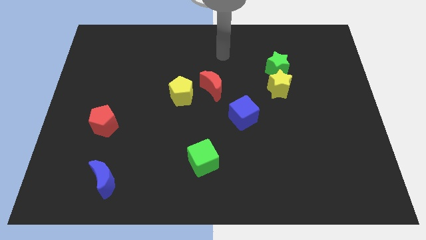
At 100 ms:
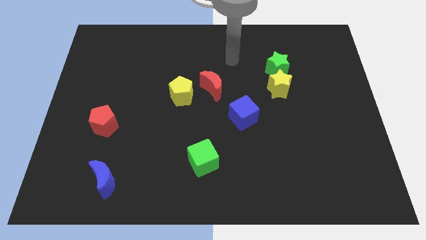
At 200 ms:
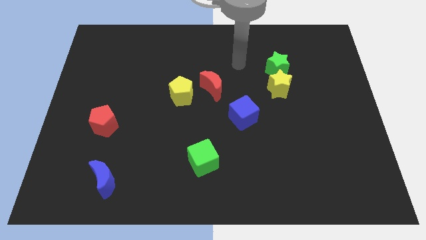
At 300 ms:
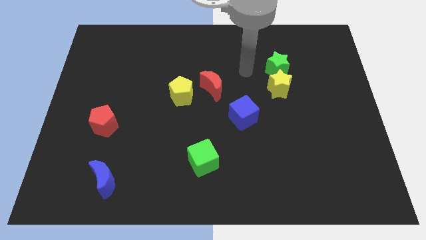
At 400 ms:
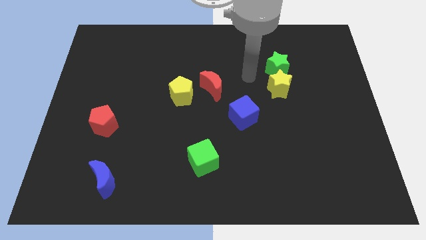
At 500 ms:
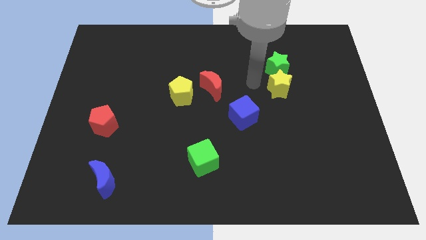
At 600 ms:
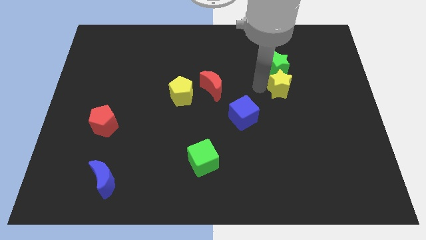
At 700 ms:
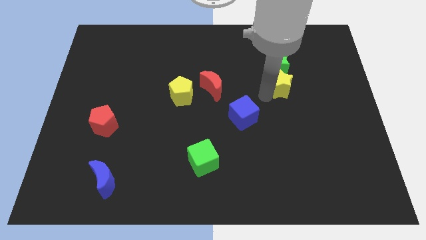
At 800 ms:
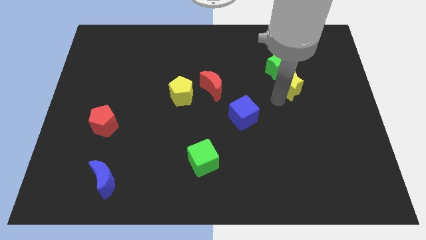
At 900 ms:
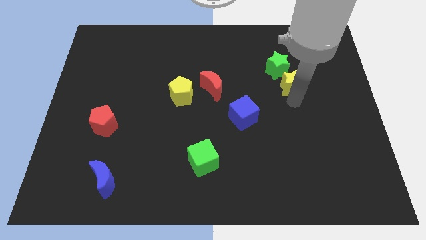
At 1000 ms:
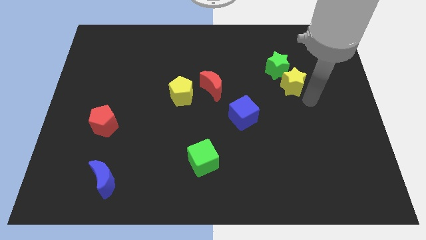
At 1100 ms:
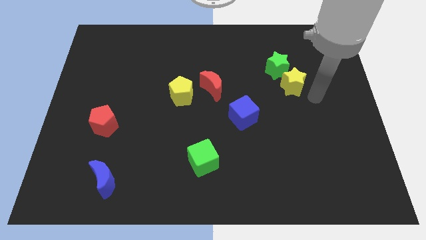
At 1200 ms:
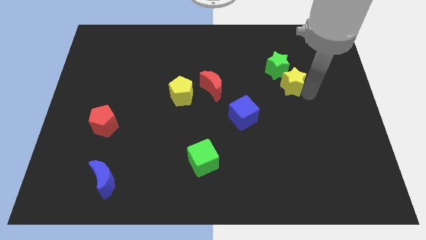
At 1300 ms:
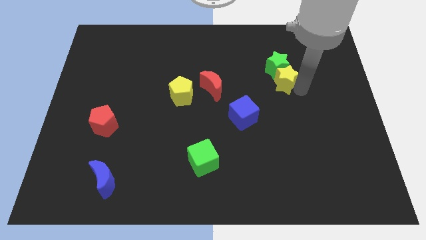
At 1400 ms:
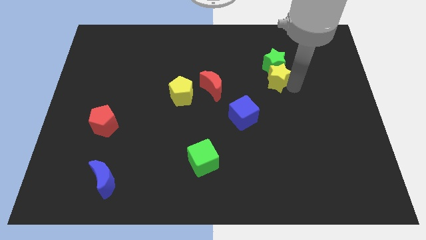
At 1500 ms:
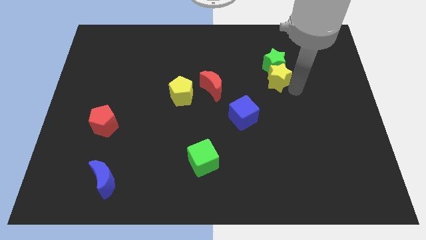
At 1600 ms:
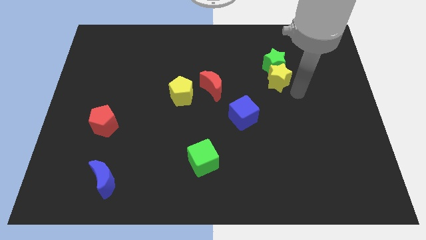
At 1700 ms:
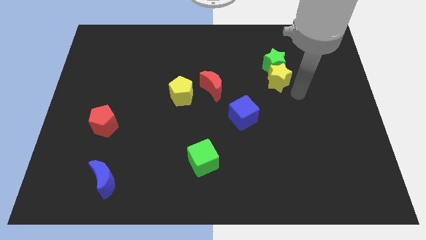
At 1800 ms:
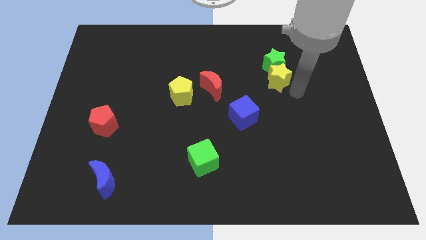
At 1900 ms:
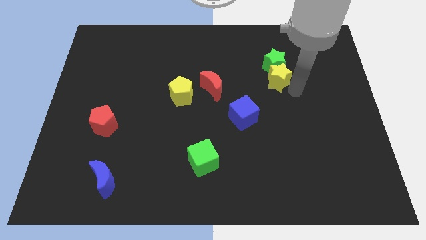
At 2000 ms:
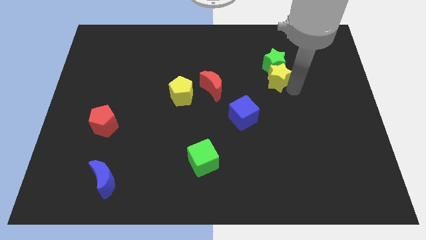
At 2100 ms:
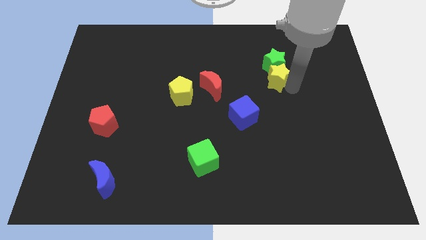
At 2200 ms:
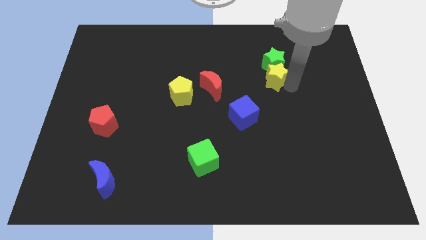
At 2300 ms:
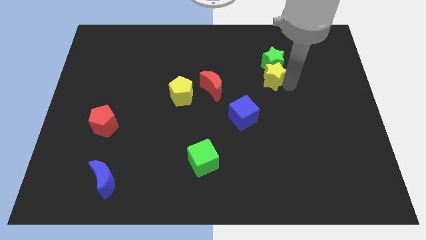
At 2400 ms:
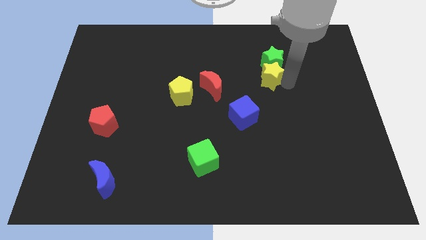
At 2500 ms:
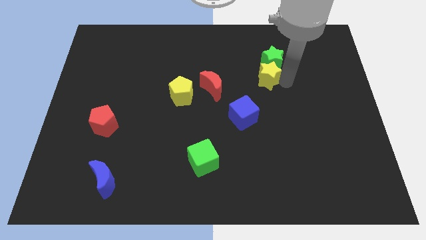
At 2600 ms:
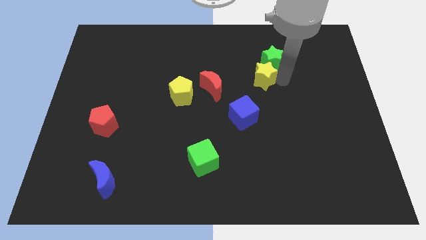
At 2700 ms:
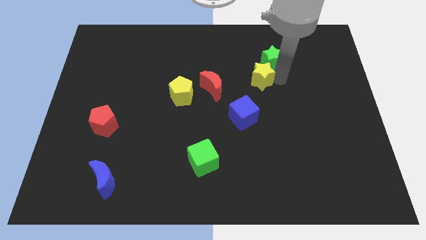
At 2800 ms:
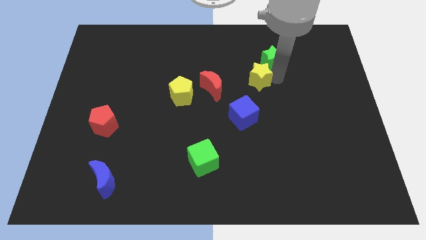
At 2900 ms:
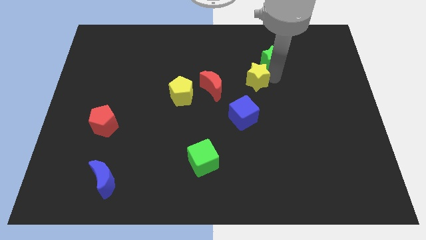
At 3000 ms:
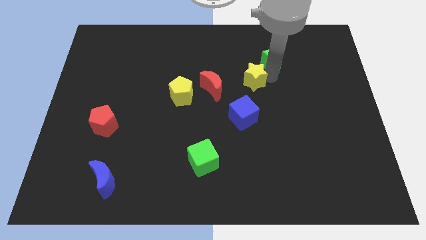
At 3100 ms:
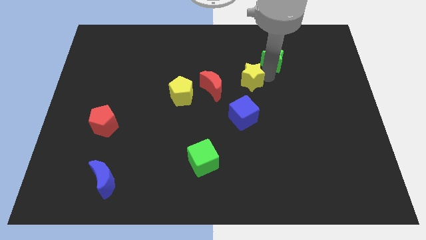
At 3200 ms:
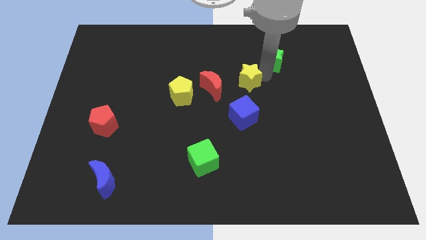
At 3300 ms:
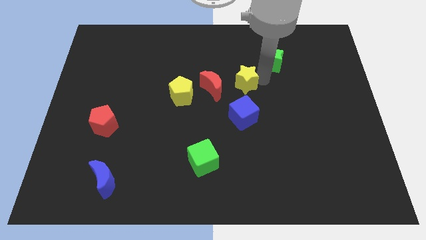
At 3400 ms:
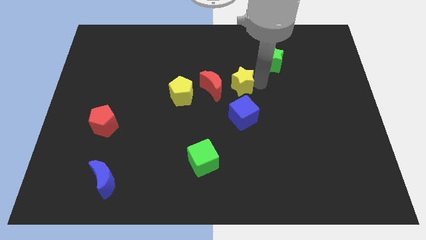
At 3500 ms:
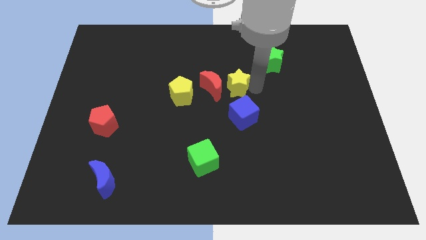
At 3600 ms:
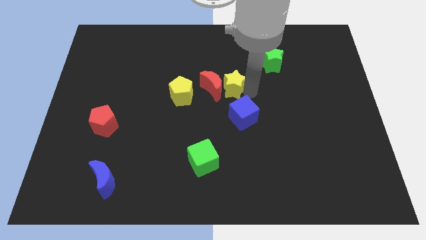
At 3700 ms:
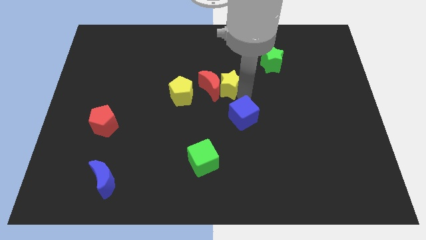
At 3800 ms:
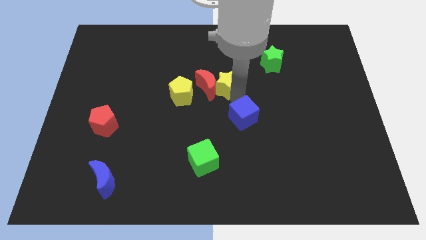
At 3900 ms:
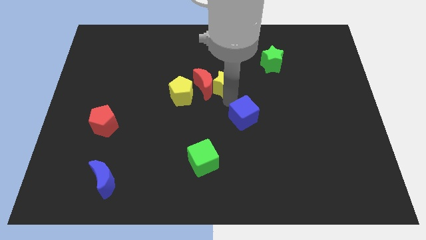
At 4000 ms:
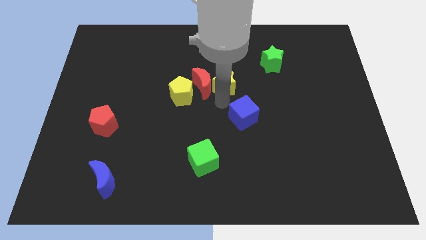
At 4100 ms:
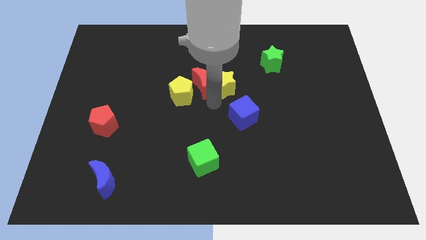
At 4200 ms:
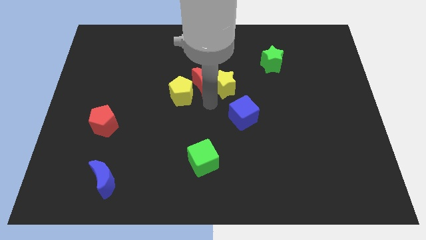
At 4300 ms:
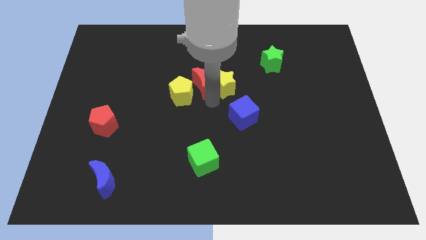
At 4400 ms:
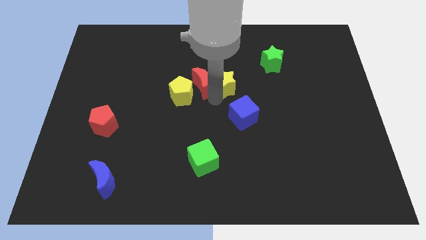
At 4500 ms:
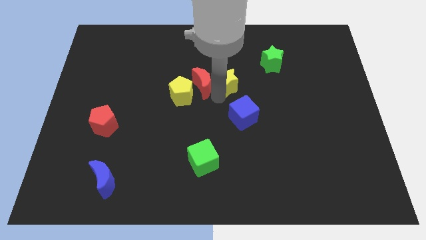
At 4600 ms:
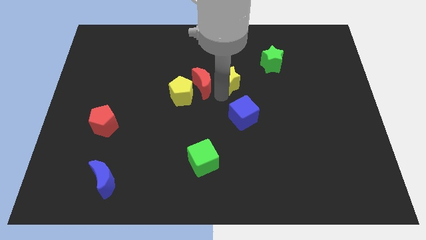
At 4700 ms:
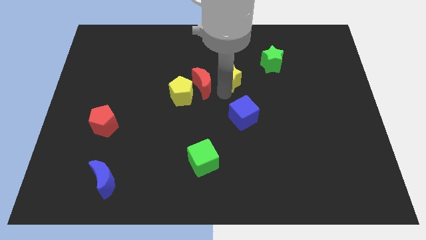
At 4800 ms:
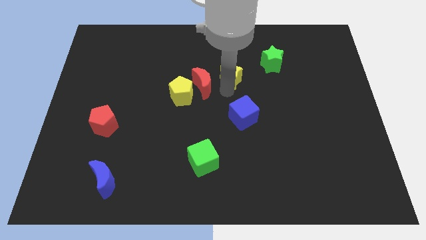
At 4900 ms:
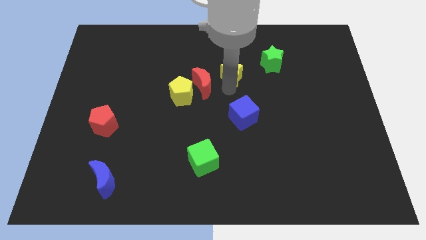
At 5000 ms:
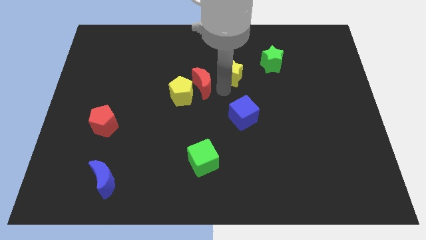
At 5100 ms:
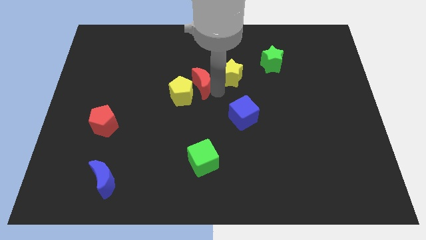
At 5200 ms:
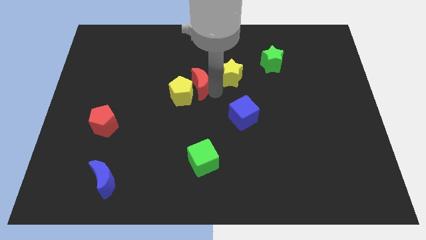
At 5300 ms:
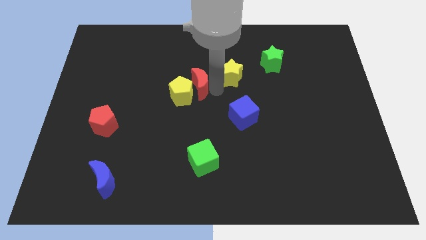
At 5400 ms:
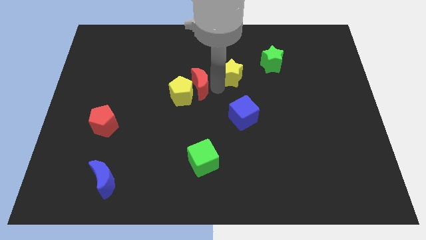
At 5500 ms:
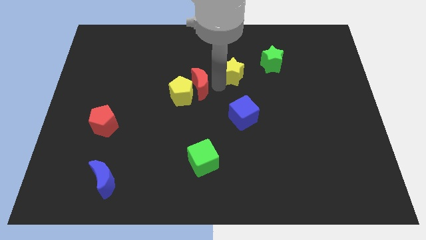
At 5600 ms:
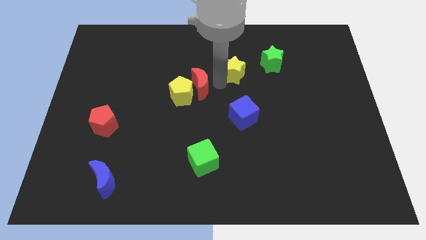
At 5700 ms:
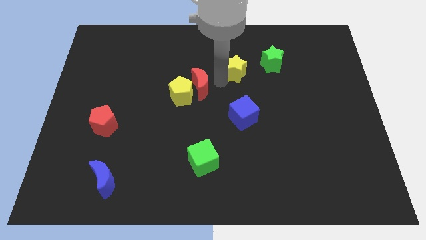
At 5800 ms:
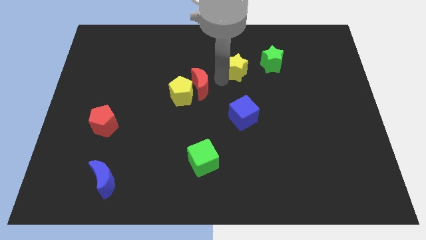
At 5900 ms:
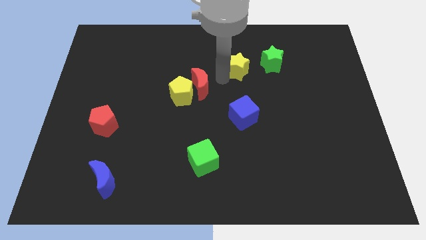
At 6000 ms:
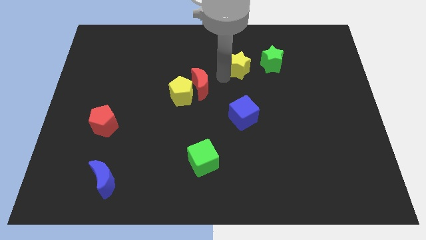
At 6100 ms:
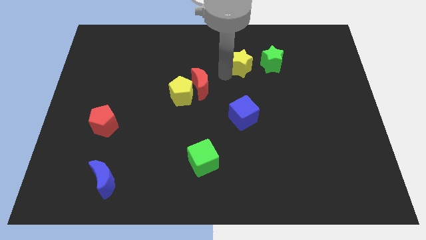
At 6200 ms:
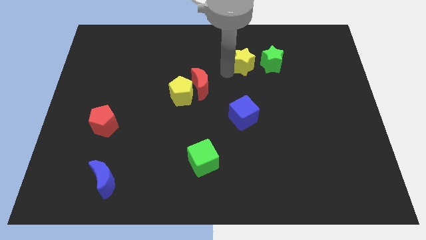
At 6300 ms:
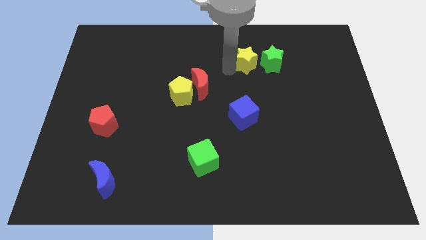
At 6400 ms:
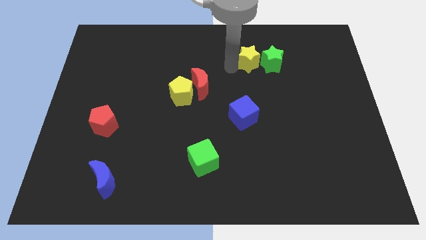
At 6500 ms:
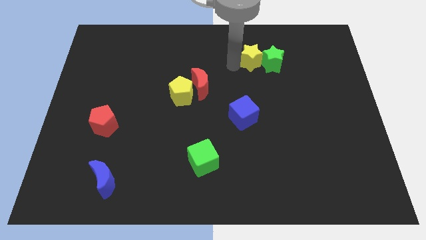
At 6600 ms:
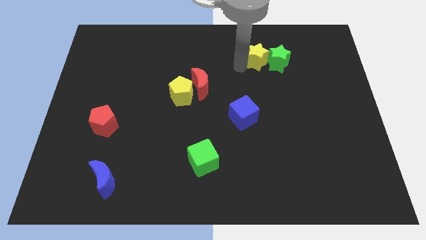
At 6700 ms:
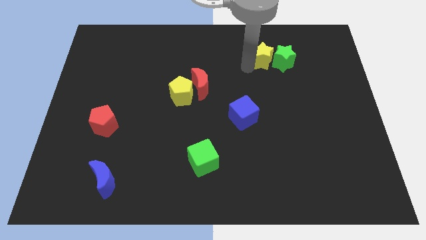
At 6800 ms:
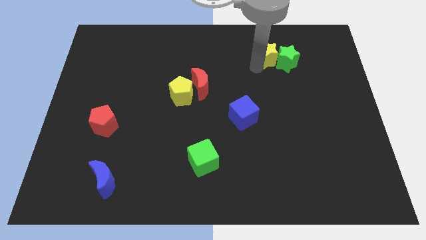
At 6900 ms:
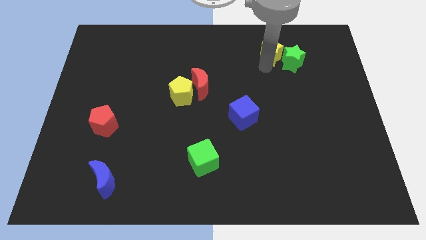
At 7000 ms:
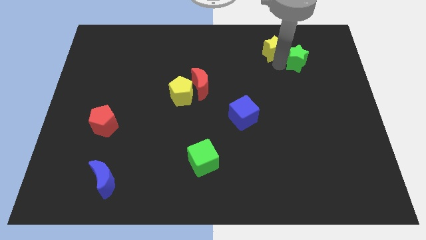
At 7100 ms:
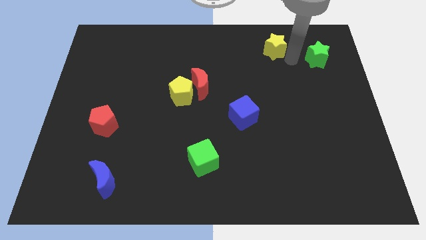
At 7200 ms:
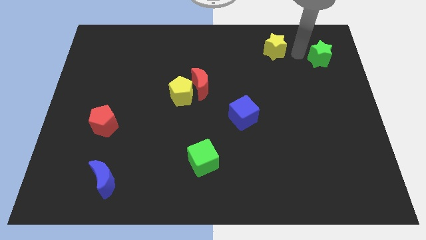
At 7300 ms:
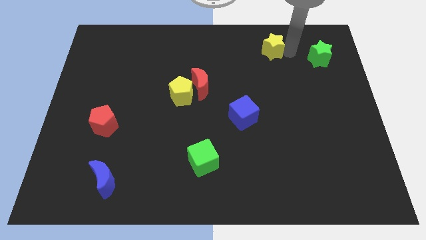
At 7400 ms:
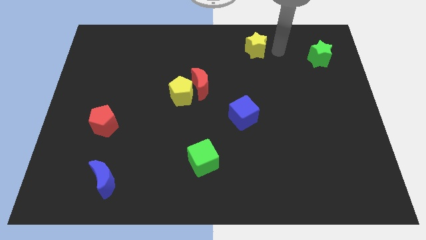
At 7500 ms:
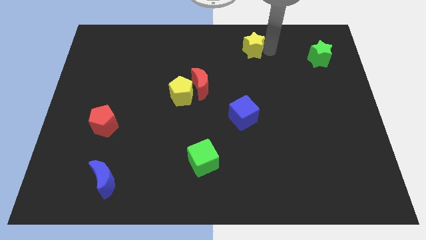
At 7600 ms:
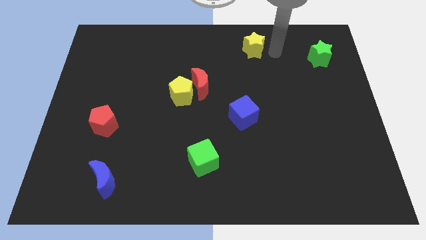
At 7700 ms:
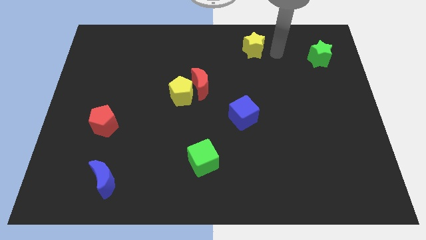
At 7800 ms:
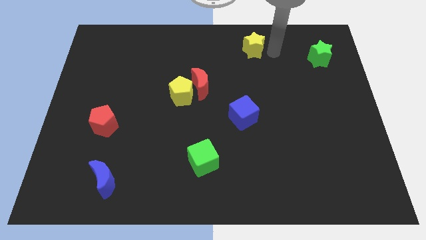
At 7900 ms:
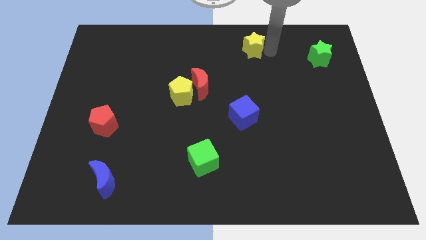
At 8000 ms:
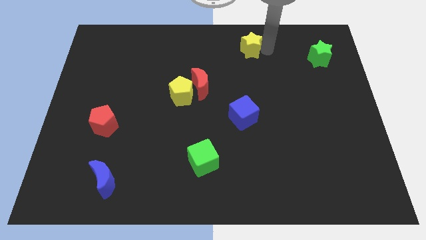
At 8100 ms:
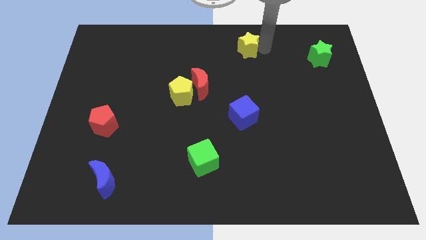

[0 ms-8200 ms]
push the yellow star to the towards your base
